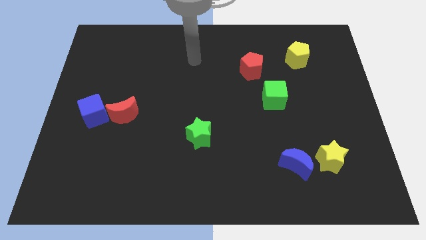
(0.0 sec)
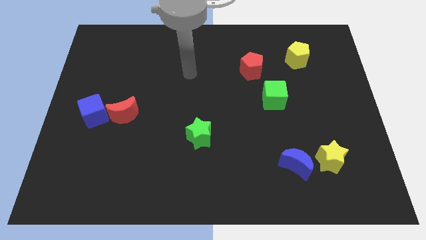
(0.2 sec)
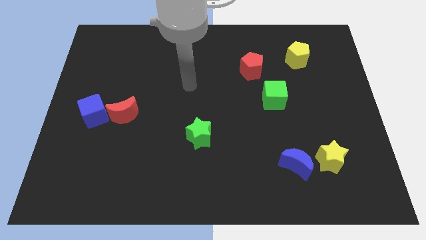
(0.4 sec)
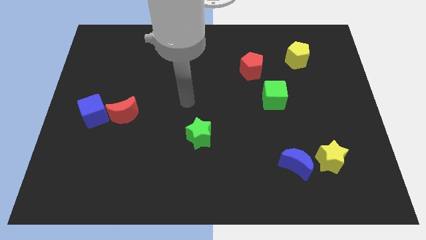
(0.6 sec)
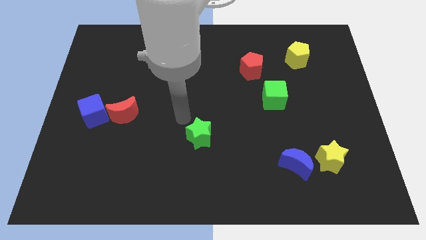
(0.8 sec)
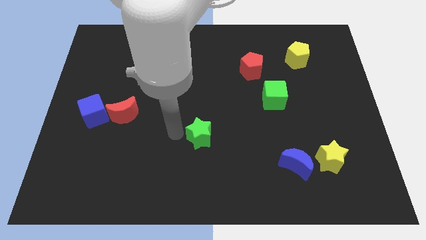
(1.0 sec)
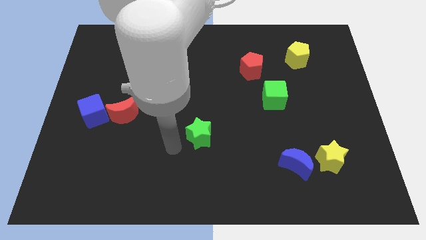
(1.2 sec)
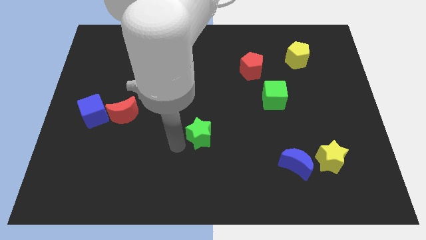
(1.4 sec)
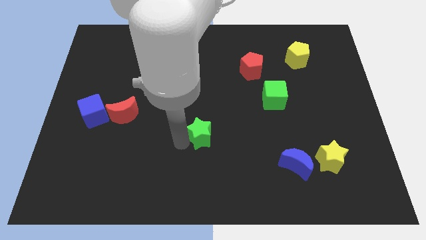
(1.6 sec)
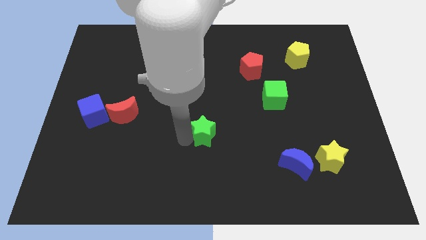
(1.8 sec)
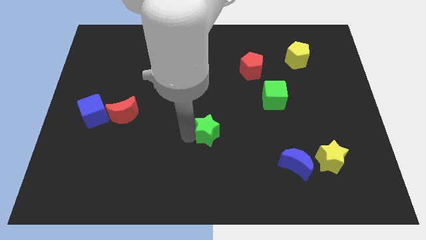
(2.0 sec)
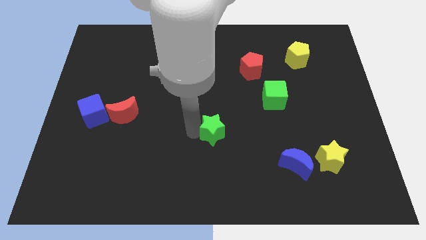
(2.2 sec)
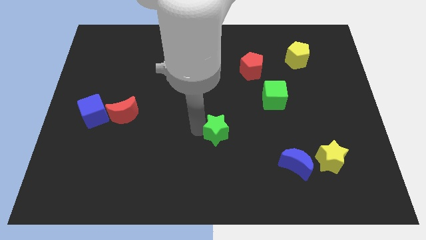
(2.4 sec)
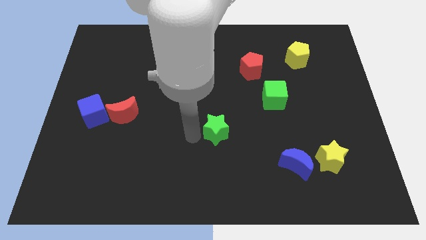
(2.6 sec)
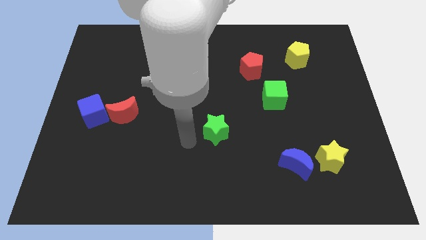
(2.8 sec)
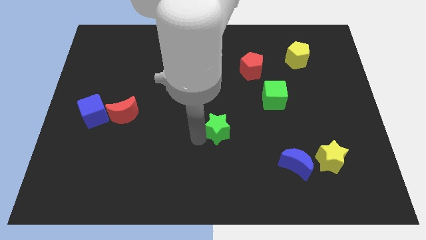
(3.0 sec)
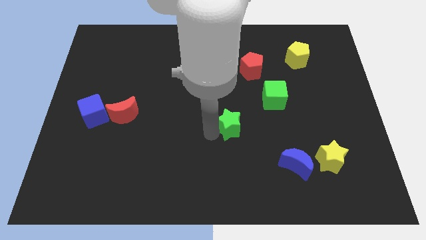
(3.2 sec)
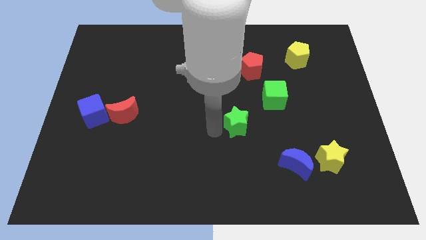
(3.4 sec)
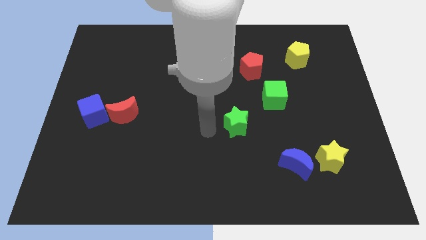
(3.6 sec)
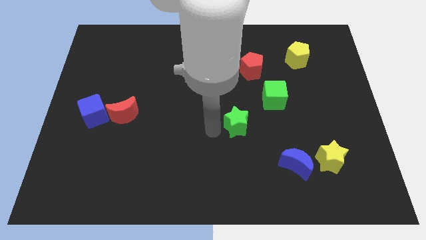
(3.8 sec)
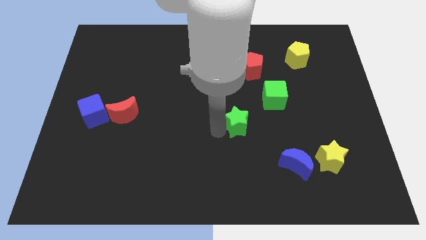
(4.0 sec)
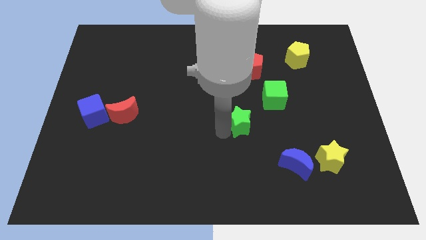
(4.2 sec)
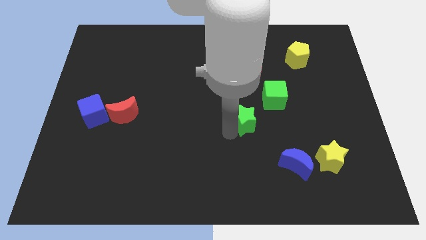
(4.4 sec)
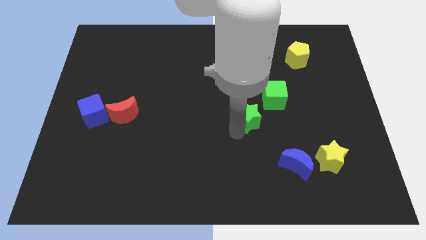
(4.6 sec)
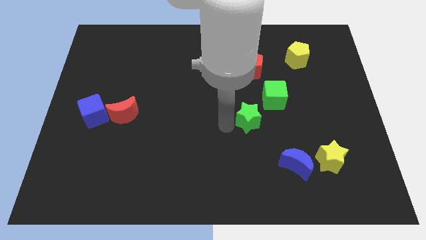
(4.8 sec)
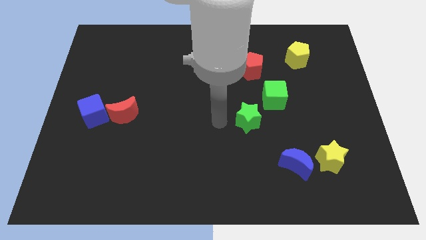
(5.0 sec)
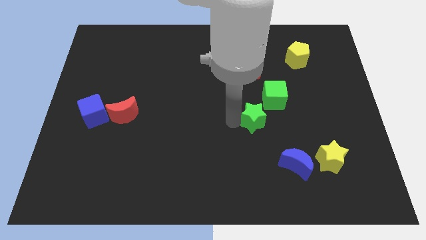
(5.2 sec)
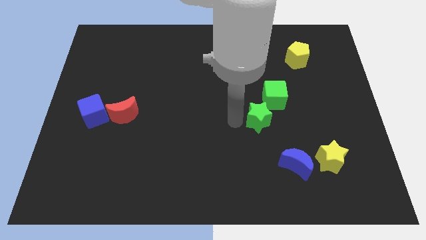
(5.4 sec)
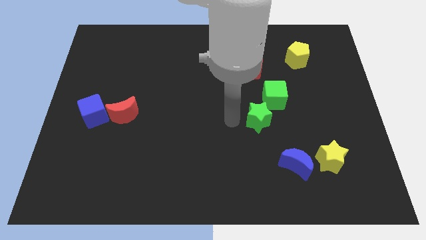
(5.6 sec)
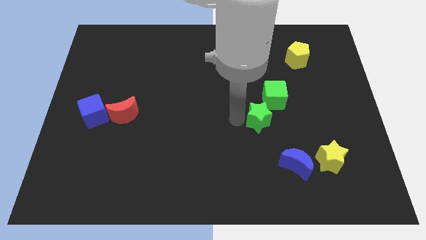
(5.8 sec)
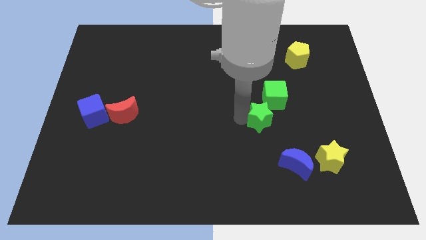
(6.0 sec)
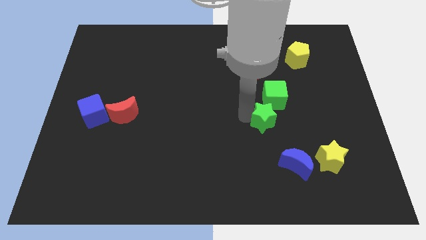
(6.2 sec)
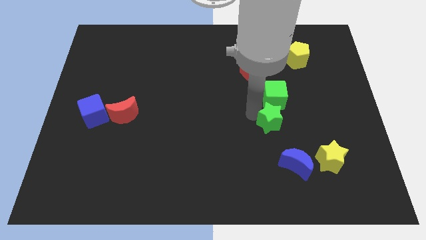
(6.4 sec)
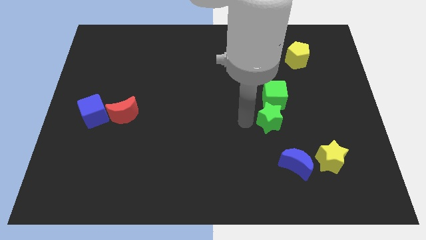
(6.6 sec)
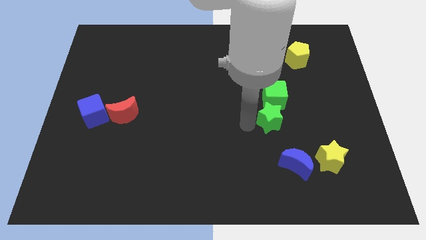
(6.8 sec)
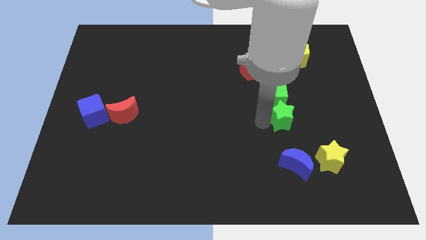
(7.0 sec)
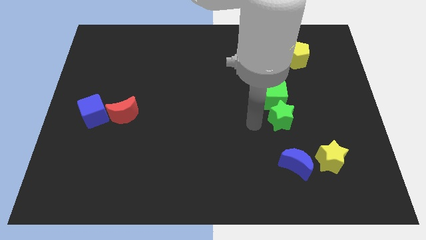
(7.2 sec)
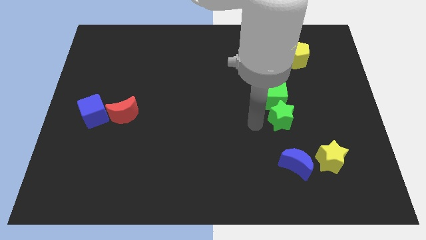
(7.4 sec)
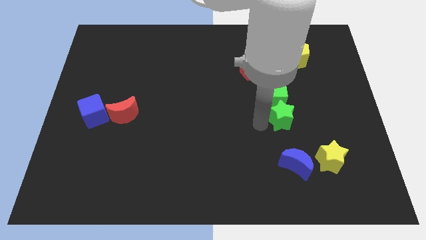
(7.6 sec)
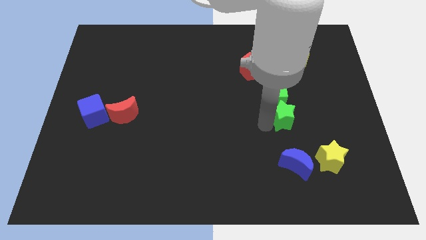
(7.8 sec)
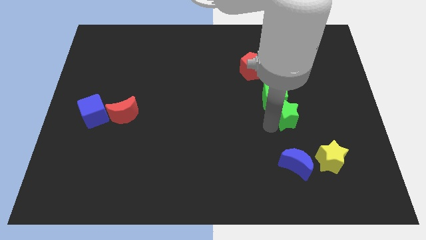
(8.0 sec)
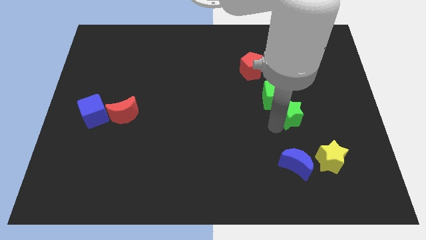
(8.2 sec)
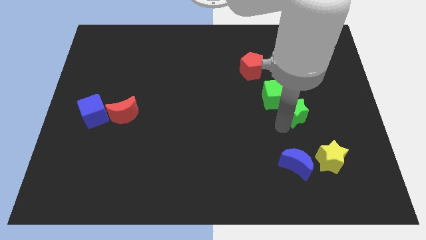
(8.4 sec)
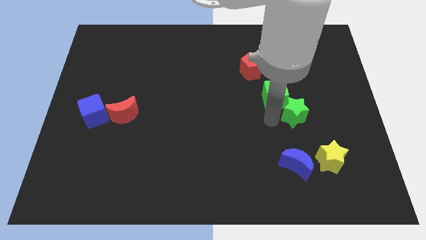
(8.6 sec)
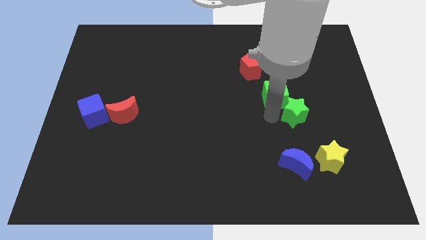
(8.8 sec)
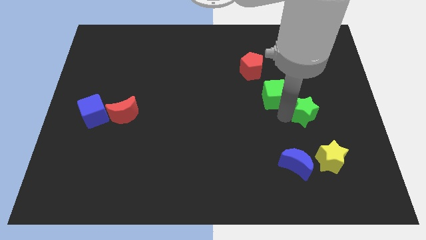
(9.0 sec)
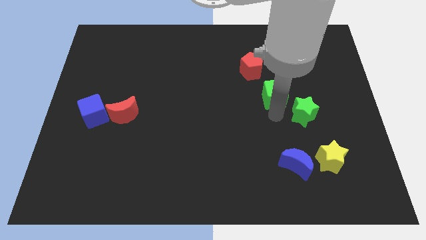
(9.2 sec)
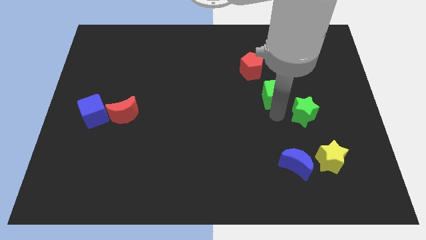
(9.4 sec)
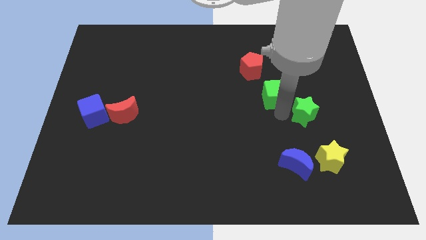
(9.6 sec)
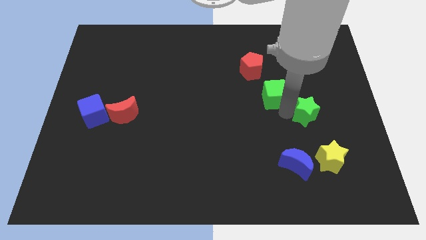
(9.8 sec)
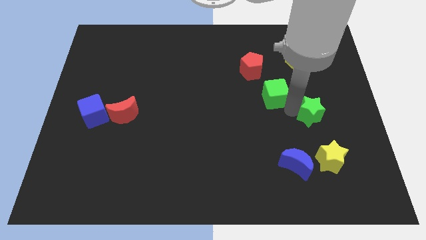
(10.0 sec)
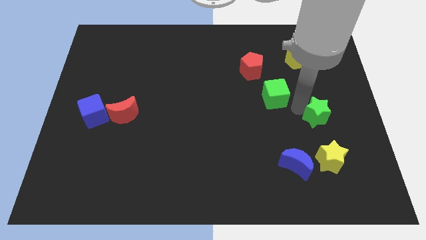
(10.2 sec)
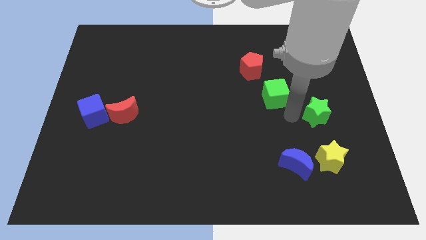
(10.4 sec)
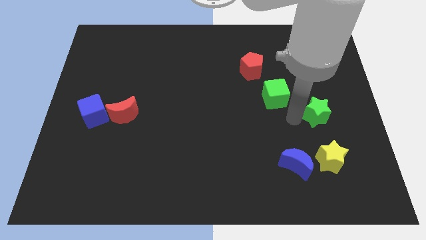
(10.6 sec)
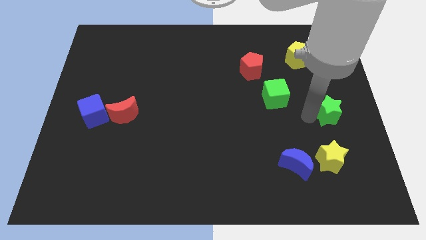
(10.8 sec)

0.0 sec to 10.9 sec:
put the green star to the right side
